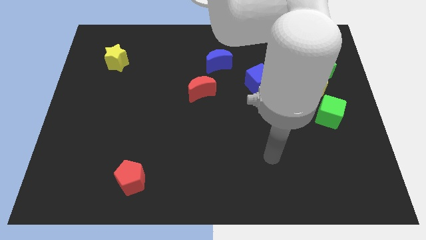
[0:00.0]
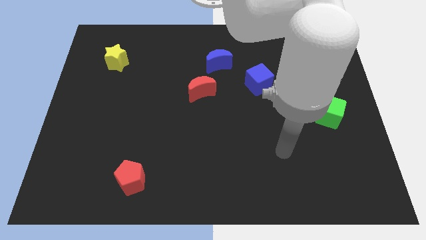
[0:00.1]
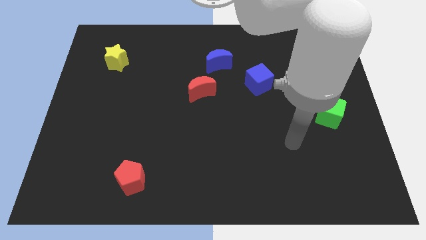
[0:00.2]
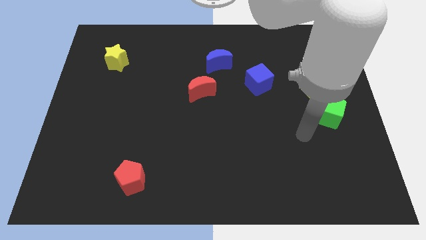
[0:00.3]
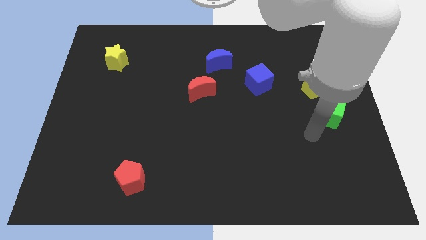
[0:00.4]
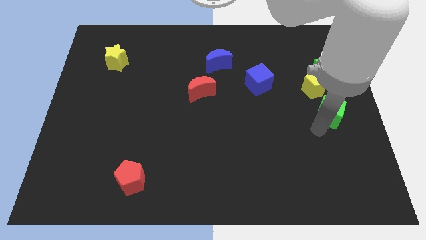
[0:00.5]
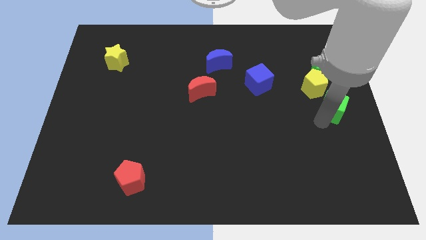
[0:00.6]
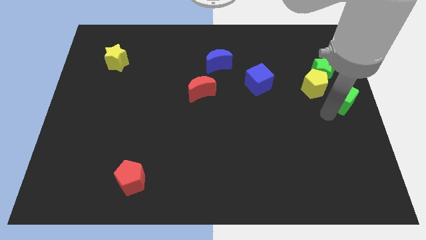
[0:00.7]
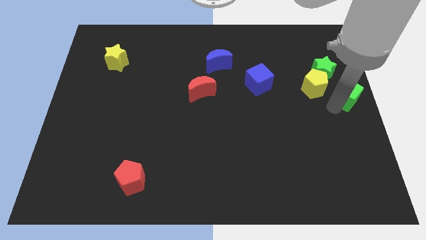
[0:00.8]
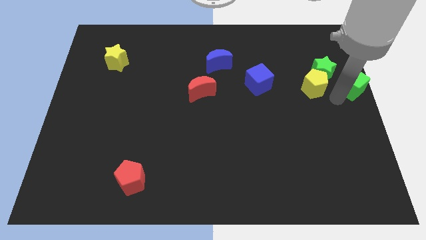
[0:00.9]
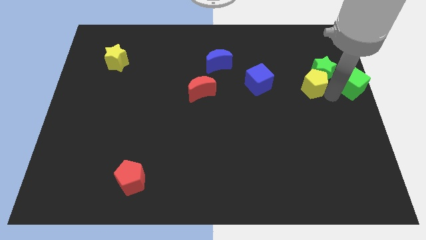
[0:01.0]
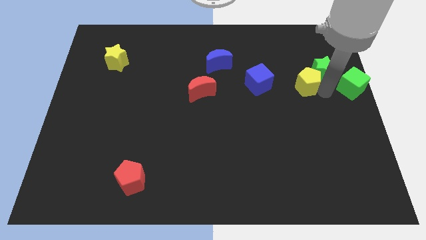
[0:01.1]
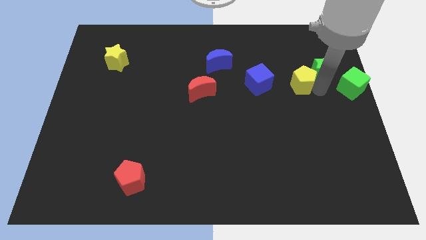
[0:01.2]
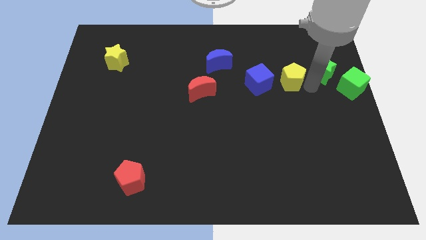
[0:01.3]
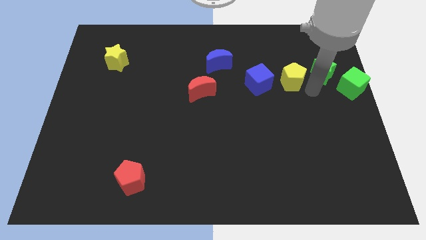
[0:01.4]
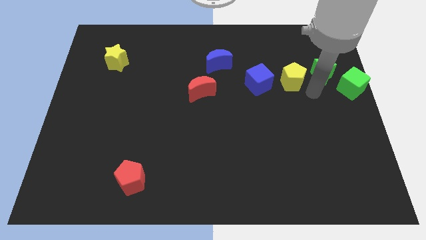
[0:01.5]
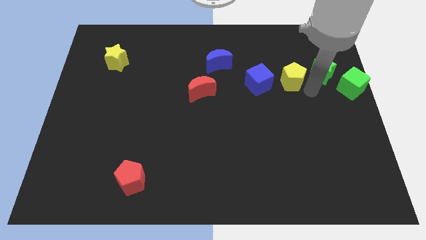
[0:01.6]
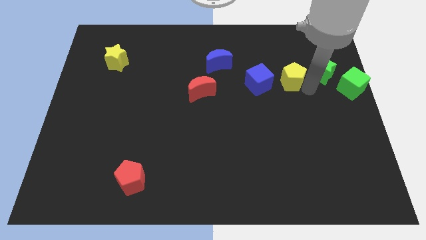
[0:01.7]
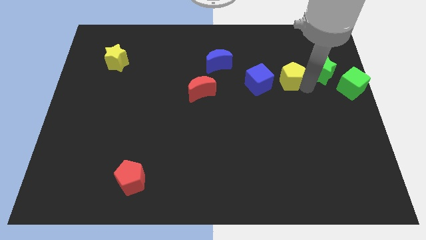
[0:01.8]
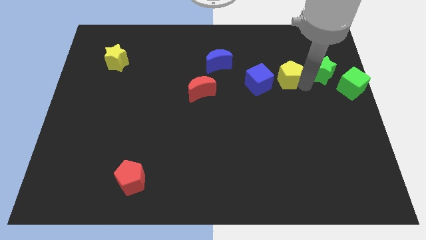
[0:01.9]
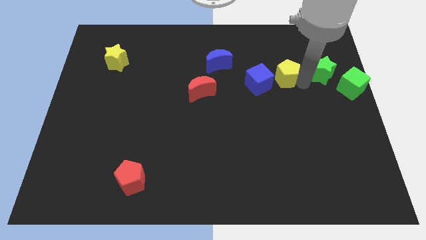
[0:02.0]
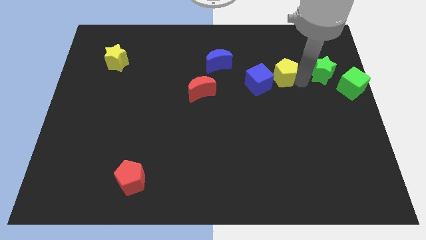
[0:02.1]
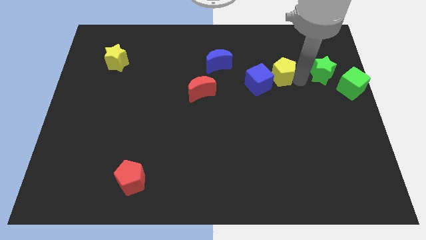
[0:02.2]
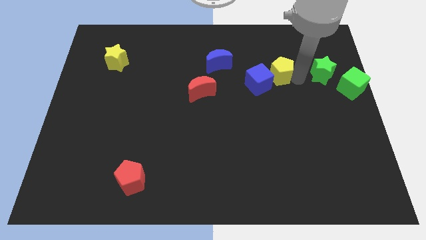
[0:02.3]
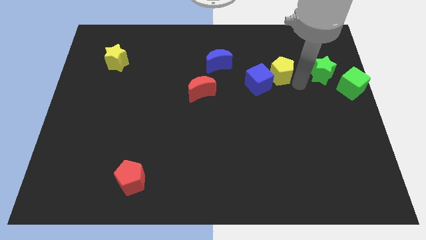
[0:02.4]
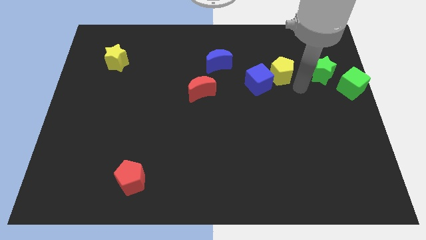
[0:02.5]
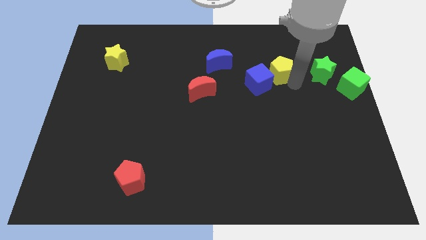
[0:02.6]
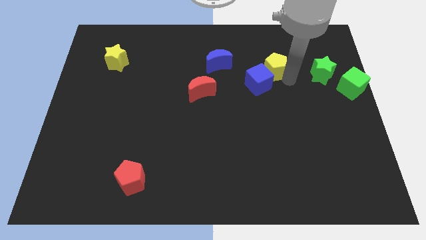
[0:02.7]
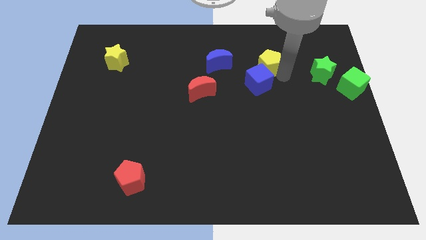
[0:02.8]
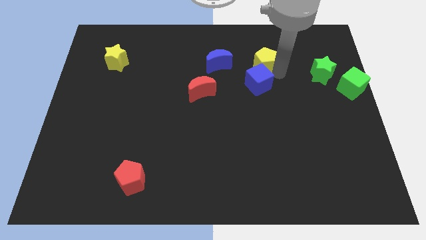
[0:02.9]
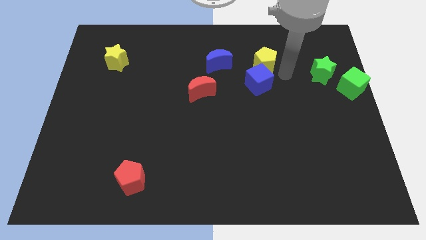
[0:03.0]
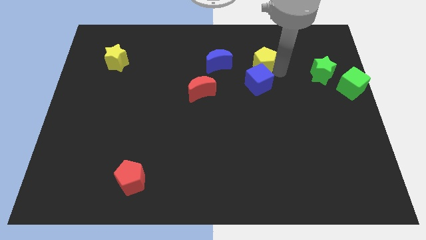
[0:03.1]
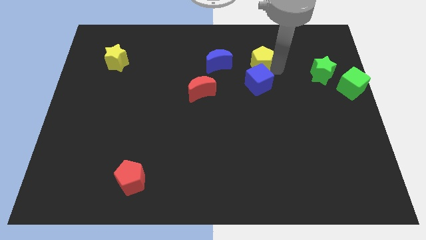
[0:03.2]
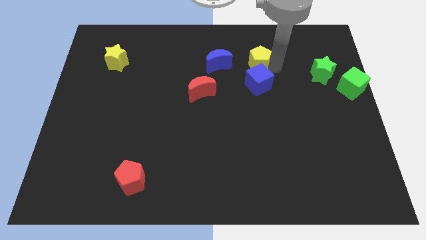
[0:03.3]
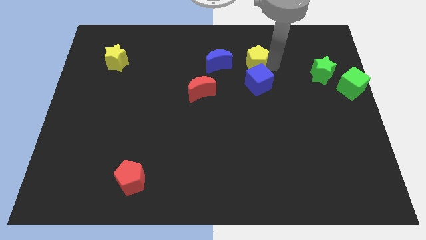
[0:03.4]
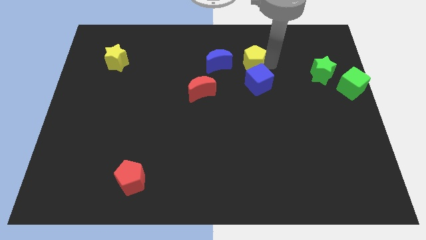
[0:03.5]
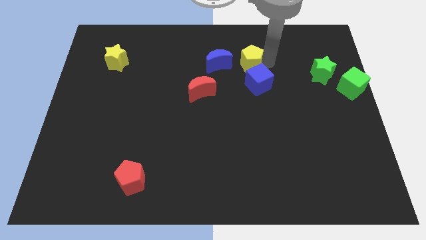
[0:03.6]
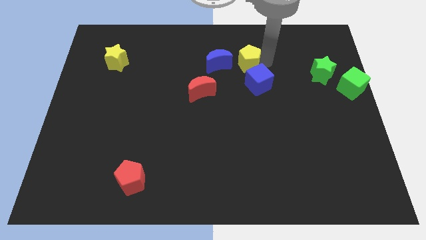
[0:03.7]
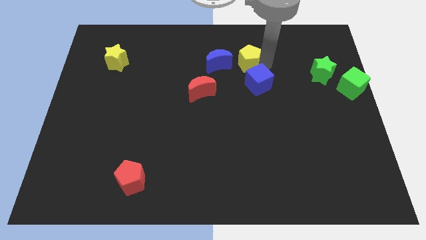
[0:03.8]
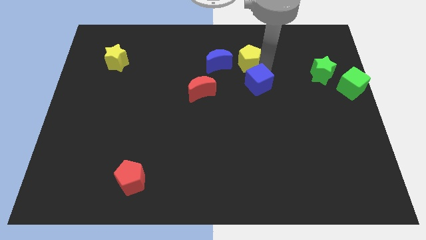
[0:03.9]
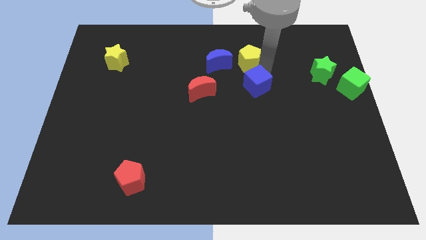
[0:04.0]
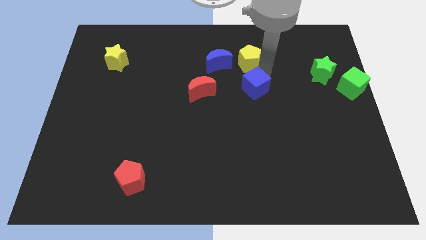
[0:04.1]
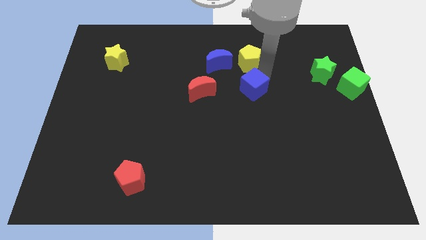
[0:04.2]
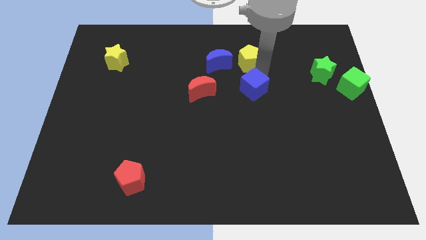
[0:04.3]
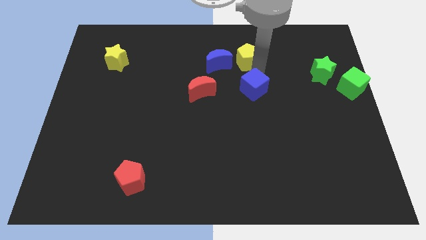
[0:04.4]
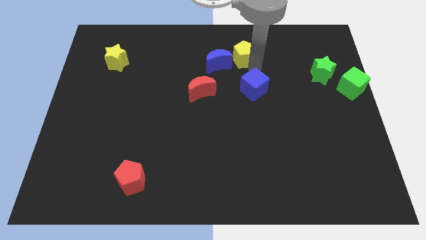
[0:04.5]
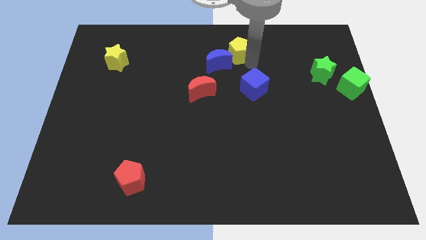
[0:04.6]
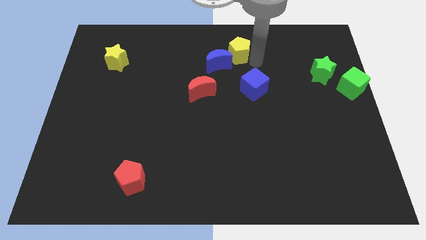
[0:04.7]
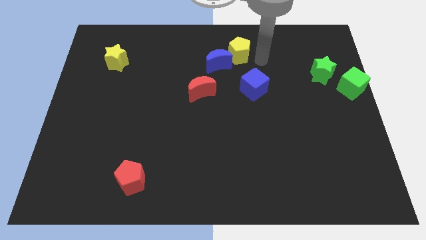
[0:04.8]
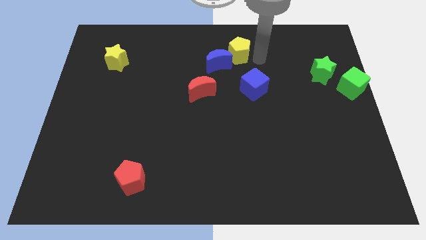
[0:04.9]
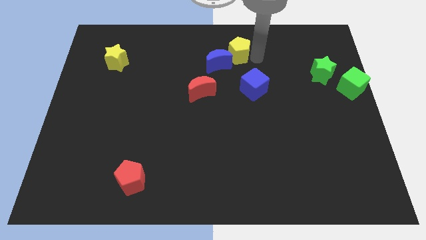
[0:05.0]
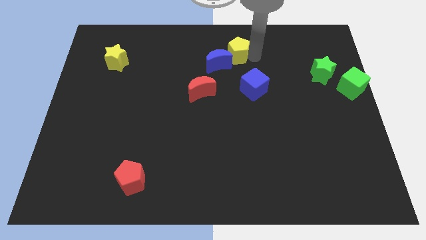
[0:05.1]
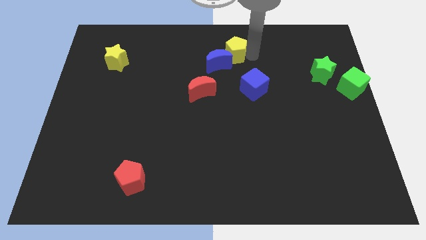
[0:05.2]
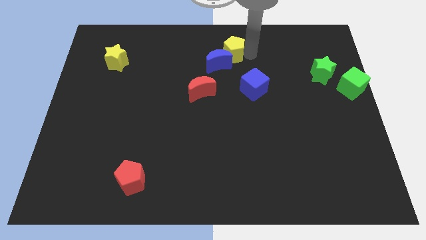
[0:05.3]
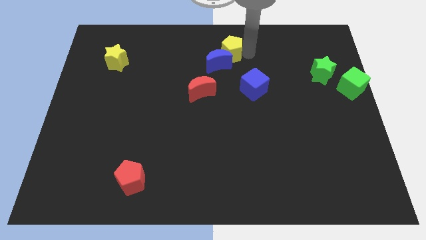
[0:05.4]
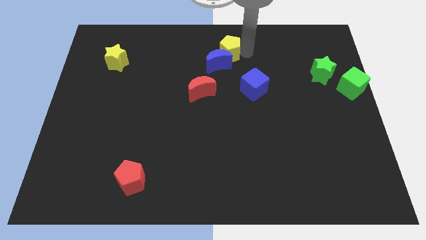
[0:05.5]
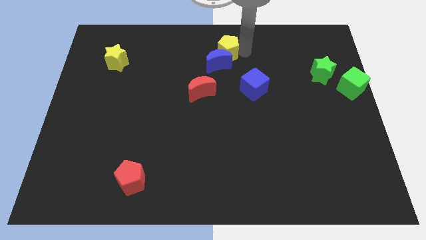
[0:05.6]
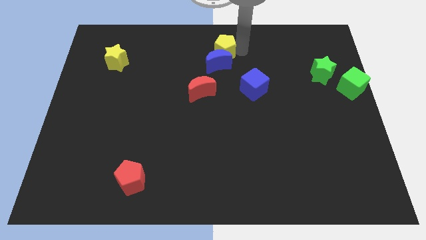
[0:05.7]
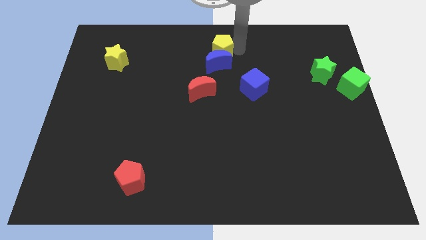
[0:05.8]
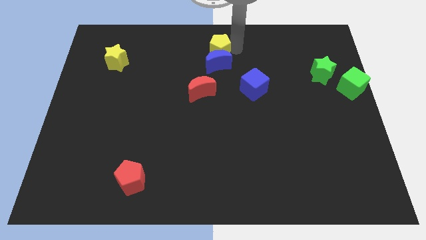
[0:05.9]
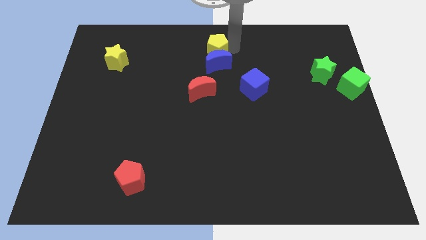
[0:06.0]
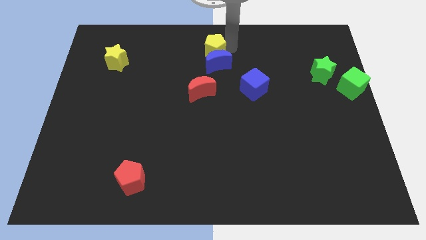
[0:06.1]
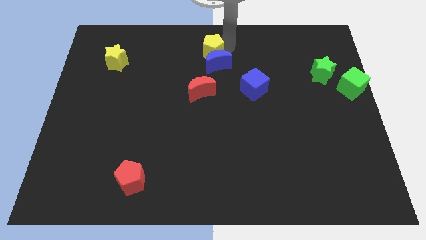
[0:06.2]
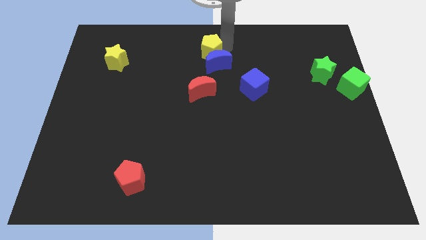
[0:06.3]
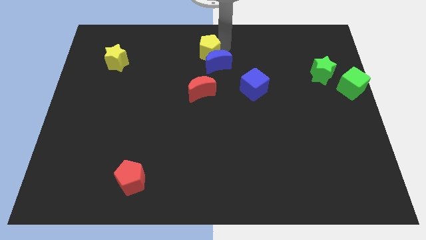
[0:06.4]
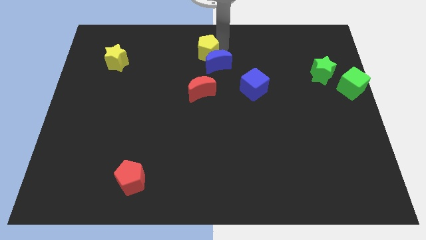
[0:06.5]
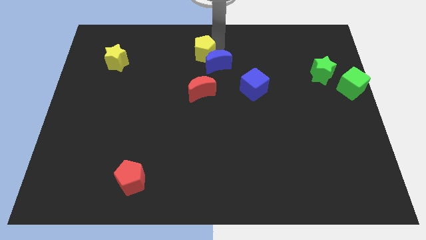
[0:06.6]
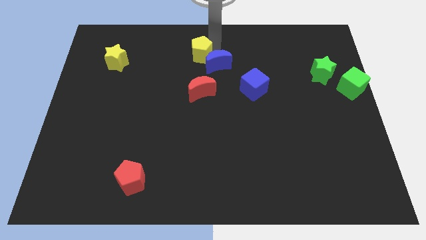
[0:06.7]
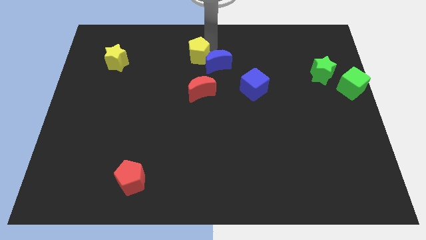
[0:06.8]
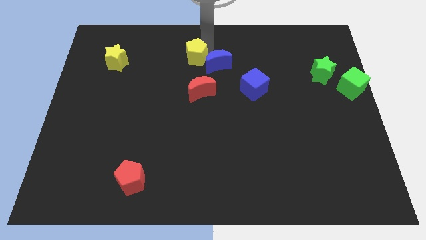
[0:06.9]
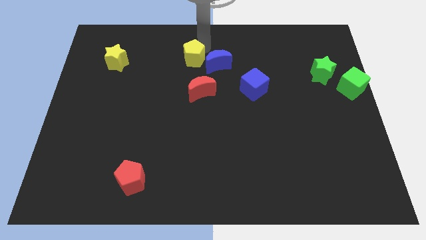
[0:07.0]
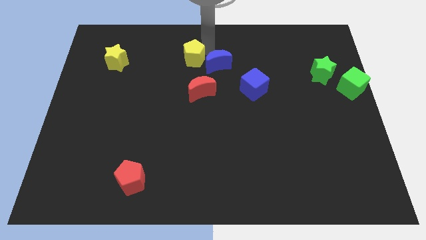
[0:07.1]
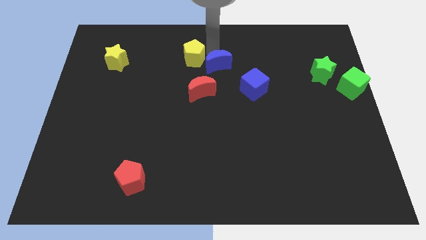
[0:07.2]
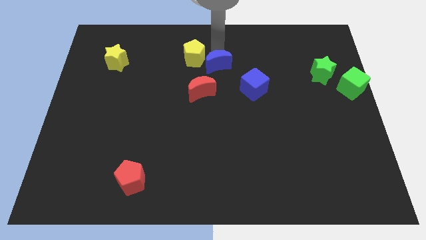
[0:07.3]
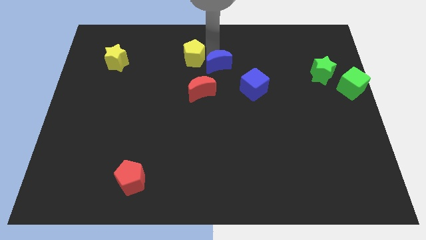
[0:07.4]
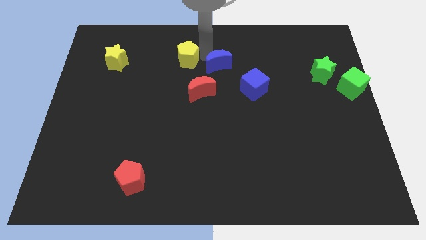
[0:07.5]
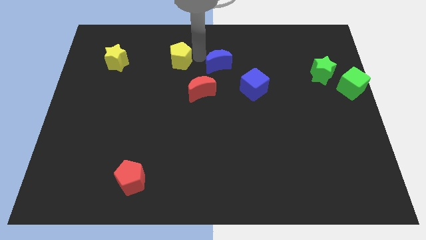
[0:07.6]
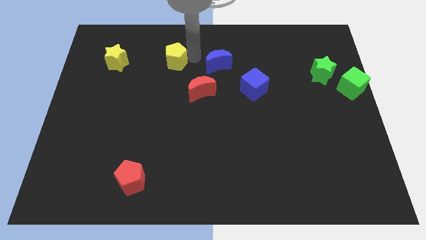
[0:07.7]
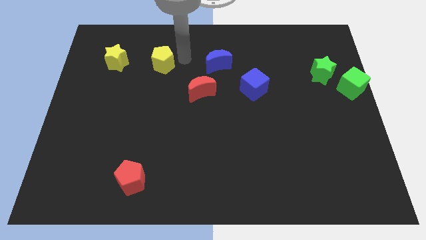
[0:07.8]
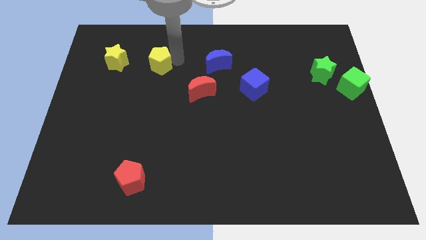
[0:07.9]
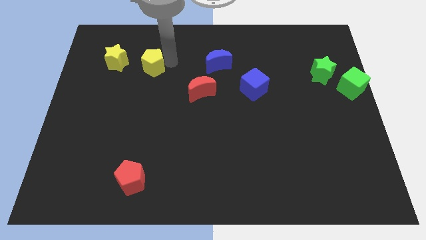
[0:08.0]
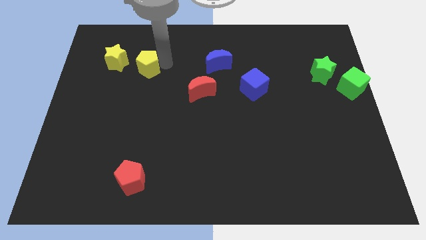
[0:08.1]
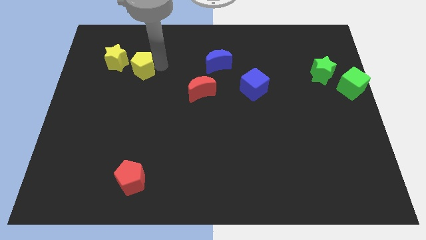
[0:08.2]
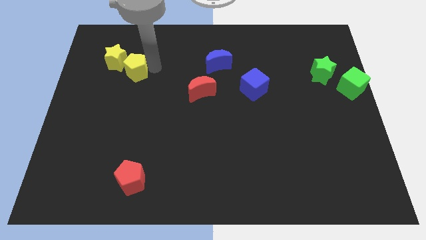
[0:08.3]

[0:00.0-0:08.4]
push the yellow pentagon to the yellow star
